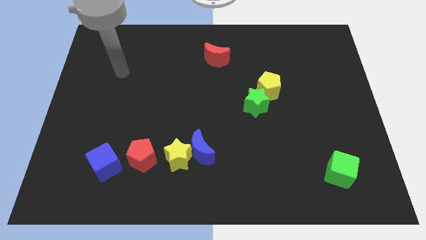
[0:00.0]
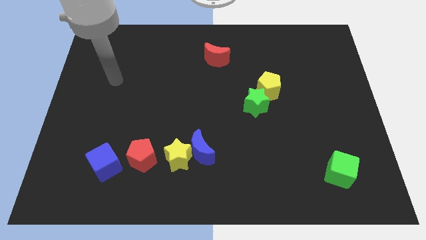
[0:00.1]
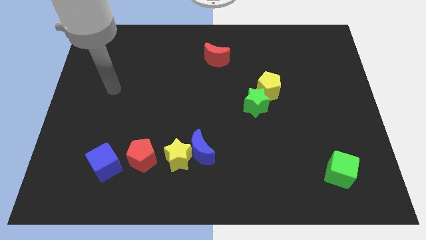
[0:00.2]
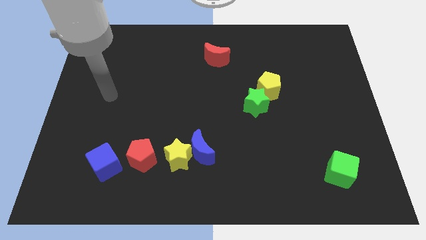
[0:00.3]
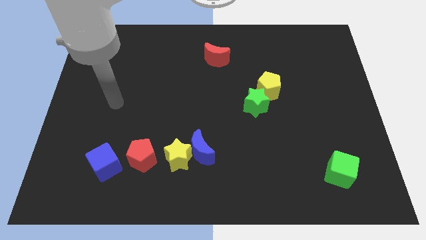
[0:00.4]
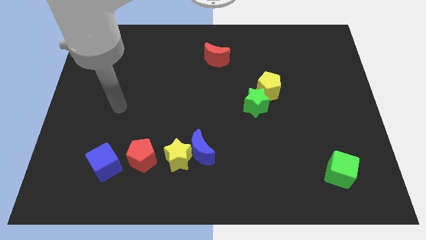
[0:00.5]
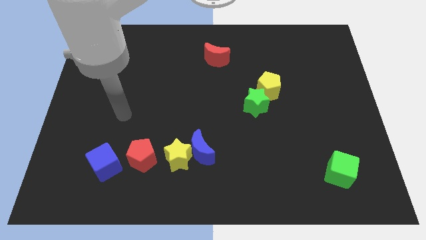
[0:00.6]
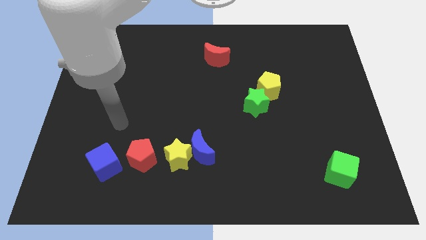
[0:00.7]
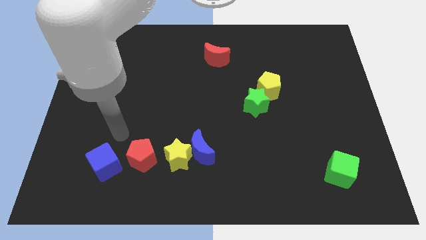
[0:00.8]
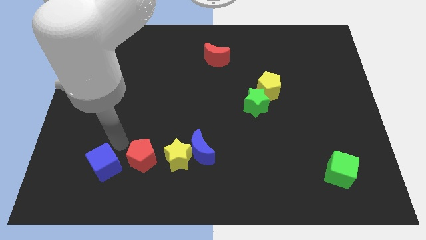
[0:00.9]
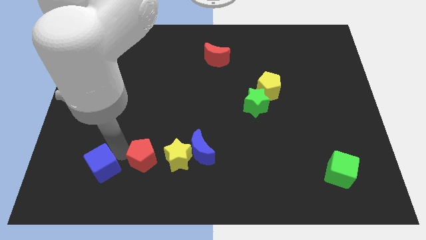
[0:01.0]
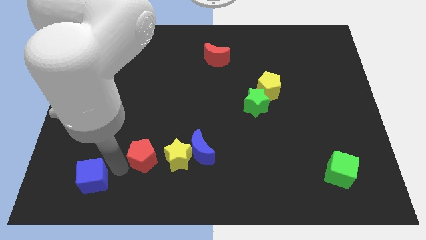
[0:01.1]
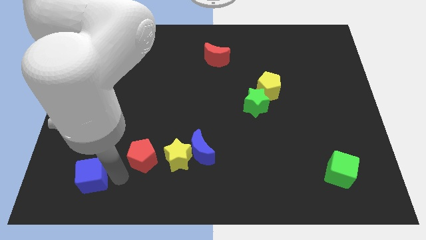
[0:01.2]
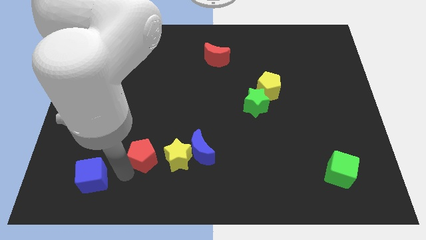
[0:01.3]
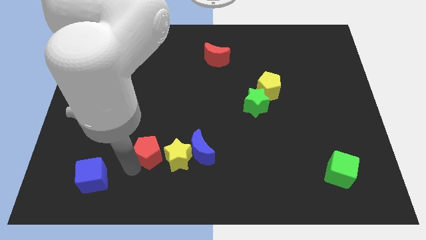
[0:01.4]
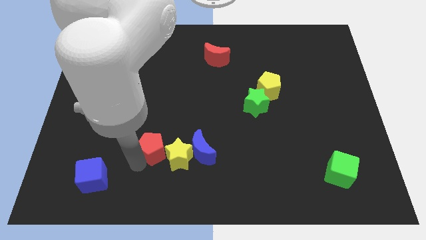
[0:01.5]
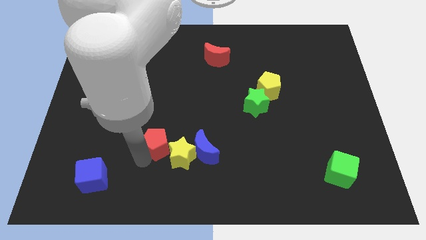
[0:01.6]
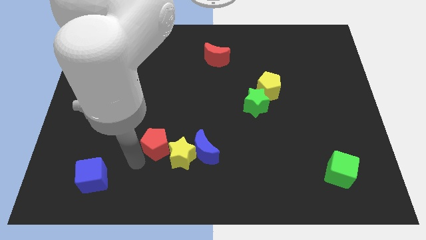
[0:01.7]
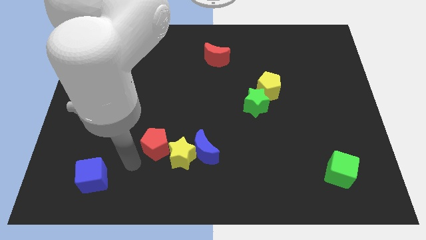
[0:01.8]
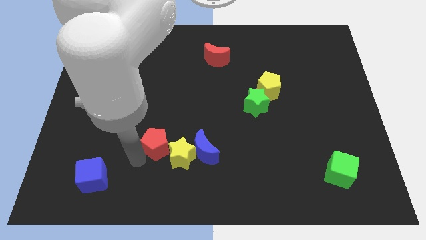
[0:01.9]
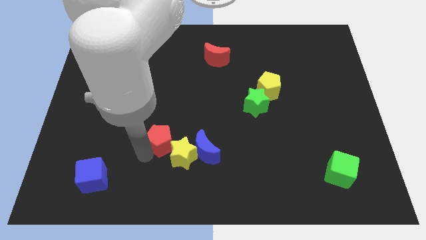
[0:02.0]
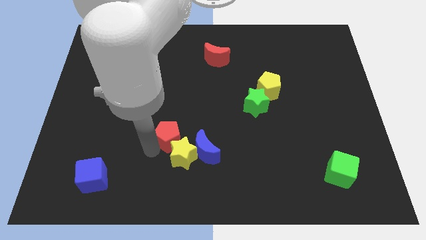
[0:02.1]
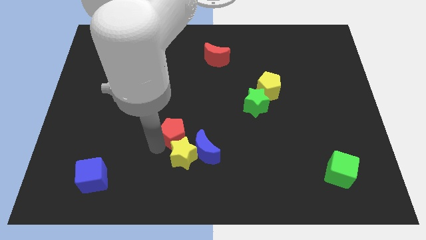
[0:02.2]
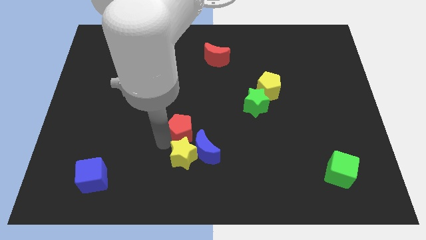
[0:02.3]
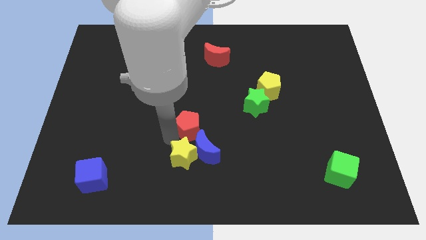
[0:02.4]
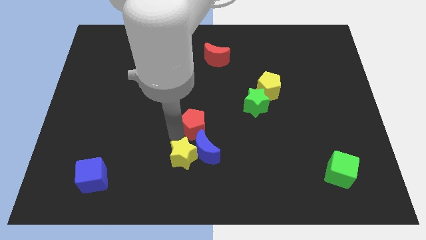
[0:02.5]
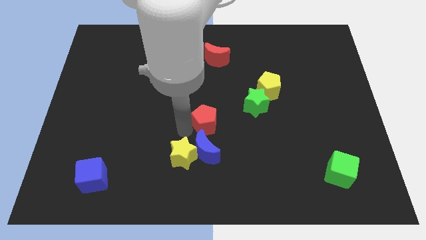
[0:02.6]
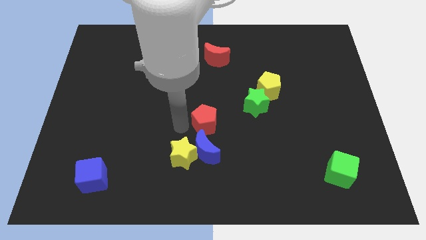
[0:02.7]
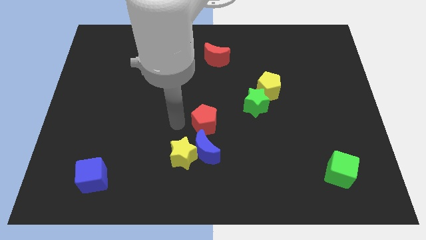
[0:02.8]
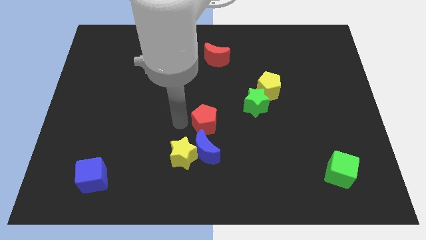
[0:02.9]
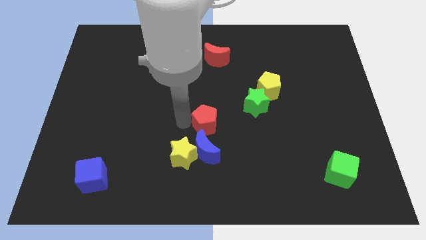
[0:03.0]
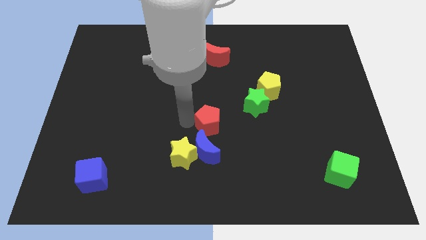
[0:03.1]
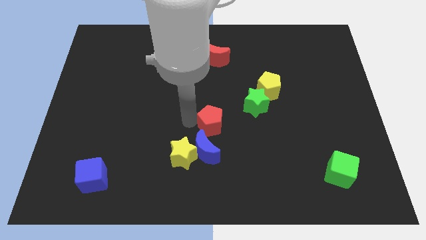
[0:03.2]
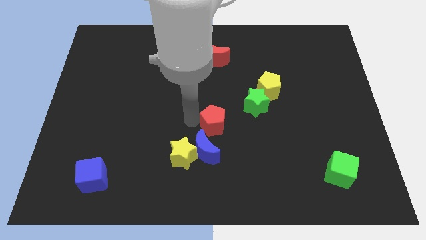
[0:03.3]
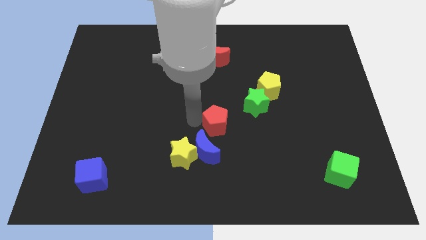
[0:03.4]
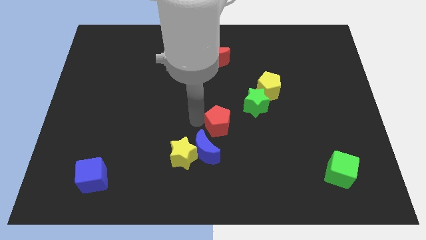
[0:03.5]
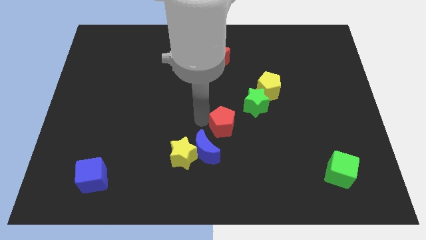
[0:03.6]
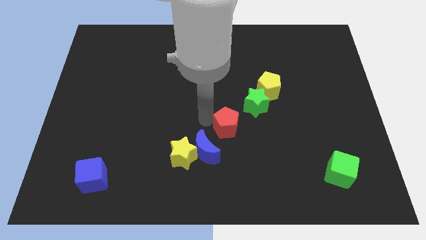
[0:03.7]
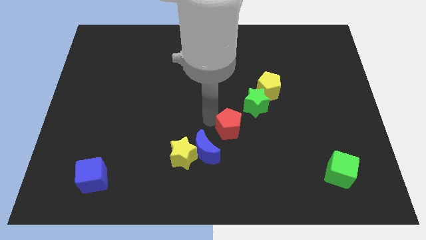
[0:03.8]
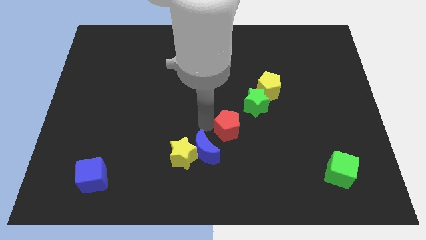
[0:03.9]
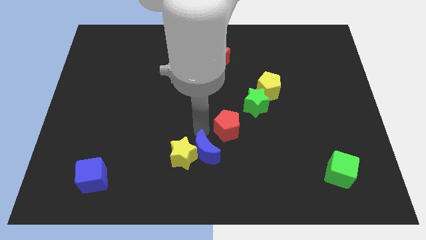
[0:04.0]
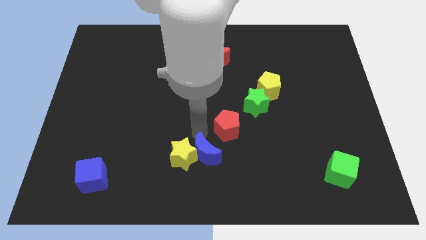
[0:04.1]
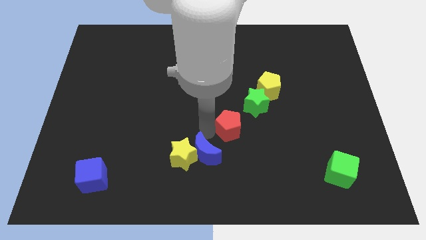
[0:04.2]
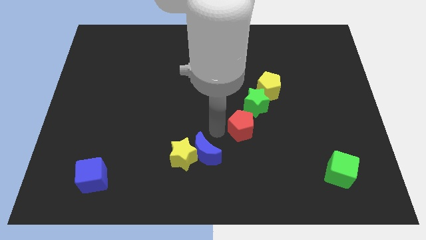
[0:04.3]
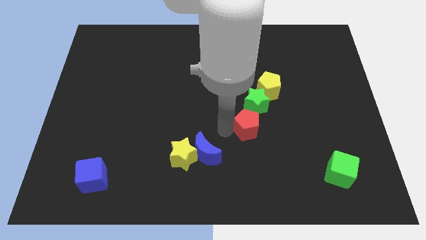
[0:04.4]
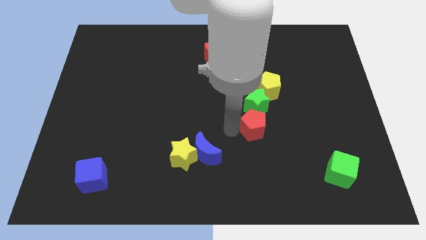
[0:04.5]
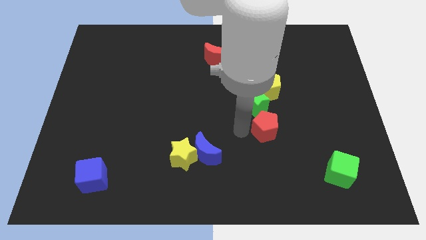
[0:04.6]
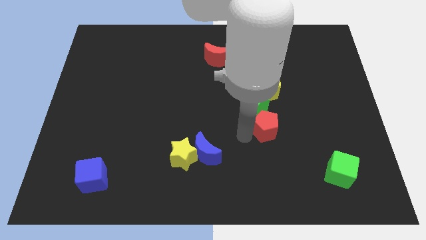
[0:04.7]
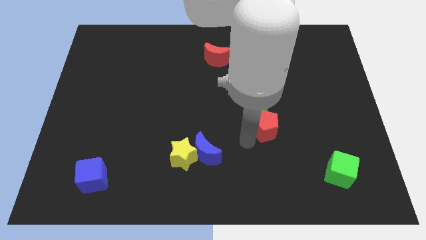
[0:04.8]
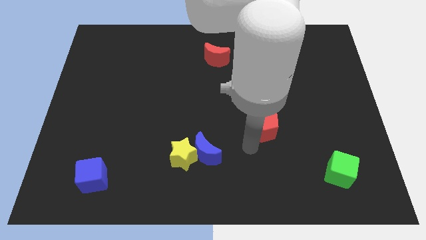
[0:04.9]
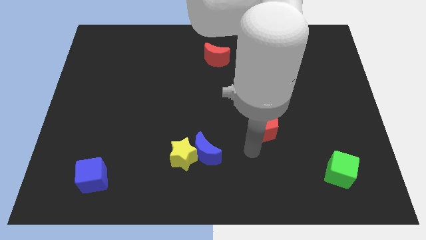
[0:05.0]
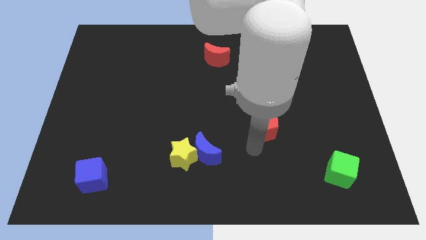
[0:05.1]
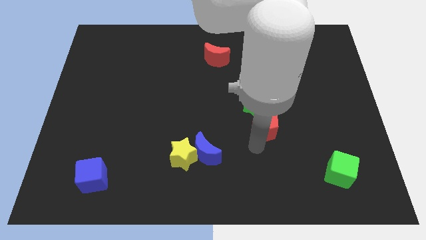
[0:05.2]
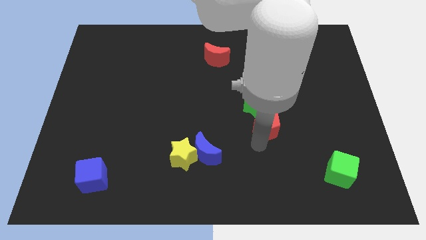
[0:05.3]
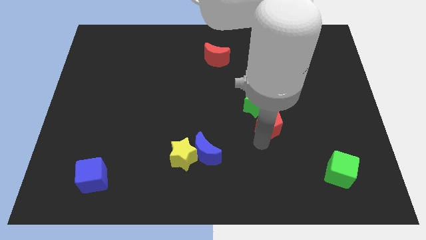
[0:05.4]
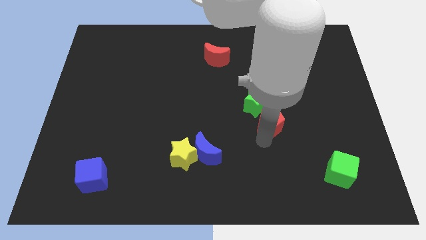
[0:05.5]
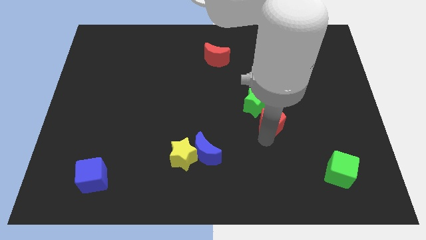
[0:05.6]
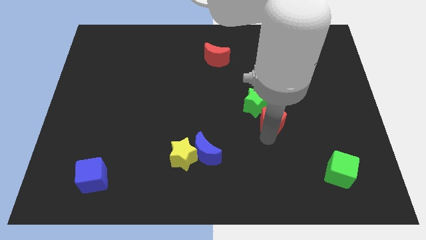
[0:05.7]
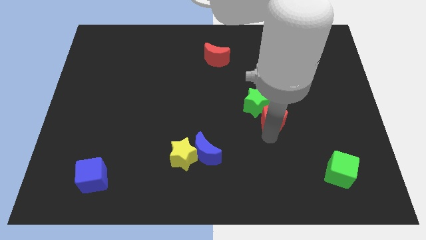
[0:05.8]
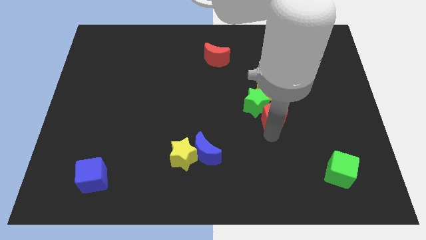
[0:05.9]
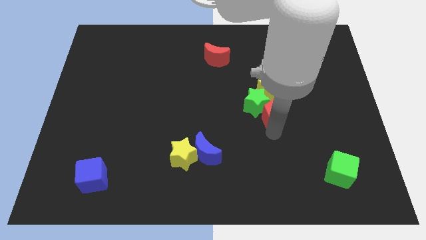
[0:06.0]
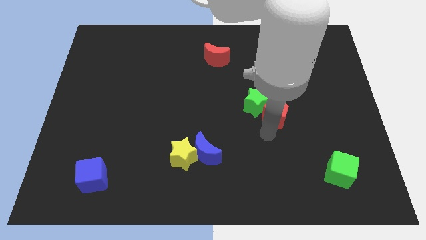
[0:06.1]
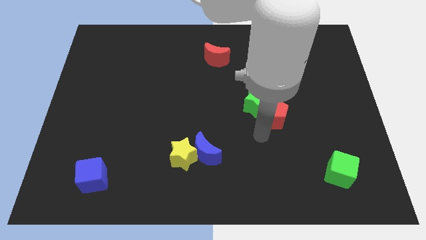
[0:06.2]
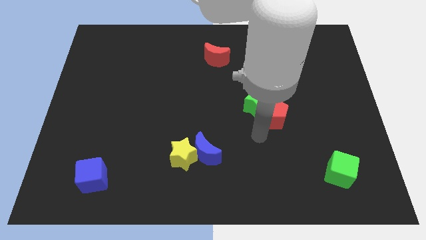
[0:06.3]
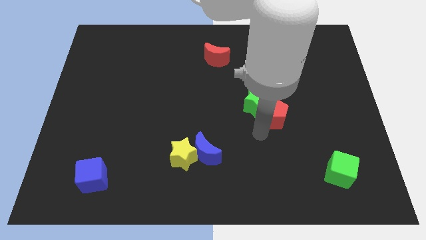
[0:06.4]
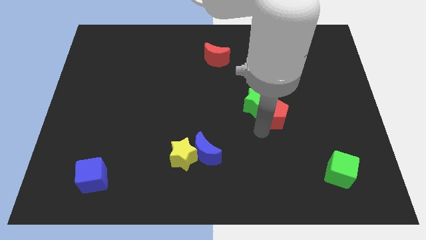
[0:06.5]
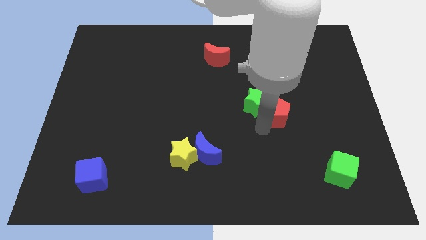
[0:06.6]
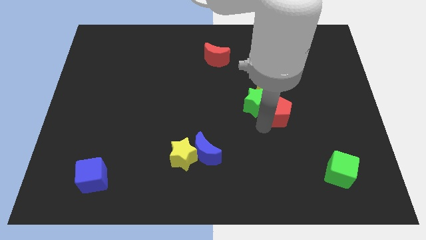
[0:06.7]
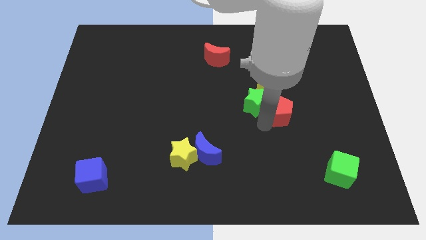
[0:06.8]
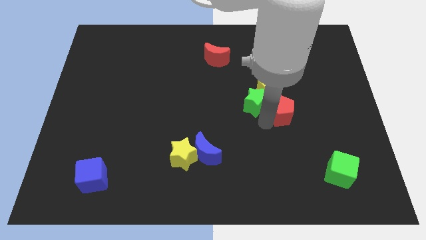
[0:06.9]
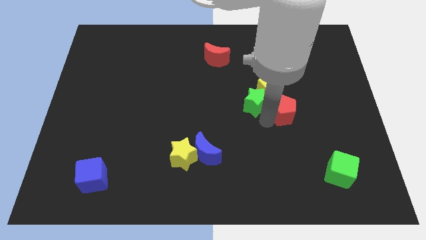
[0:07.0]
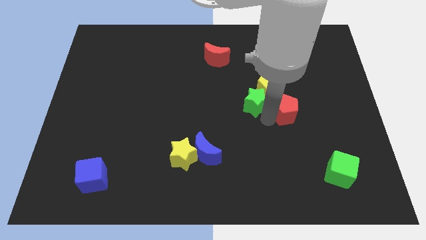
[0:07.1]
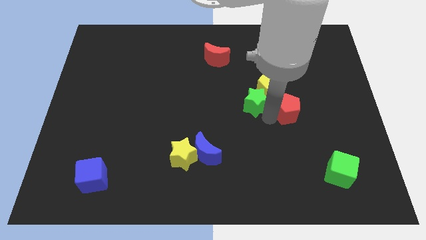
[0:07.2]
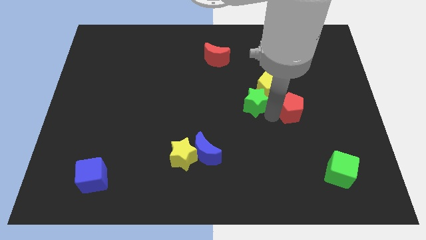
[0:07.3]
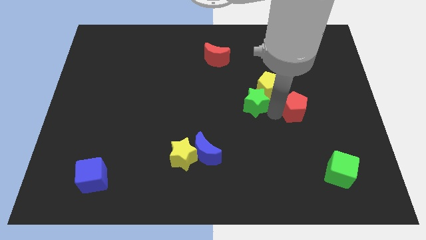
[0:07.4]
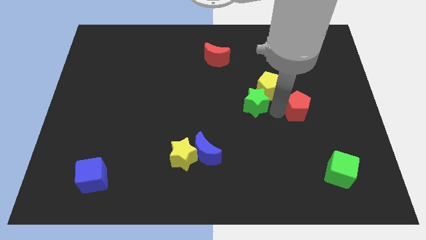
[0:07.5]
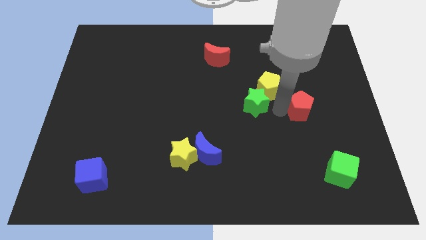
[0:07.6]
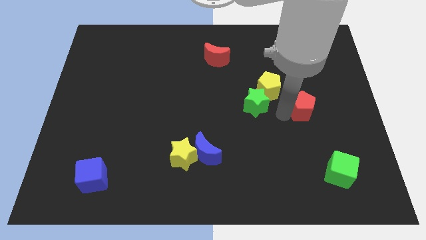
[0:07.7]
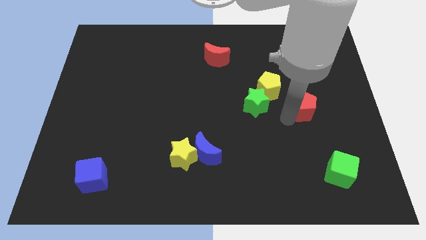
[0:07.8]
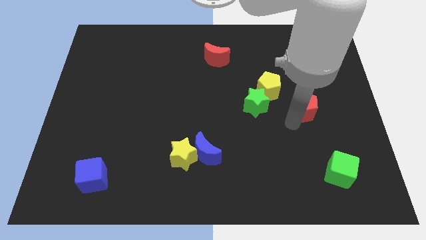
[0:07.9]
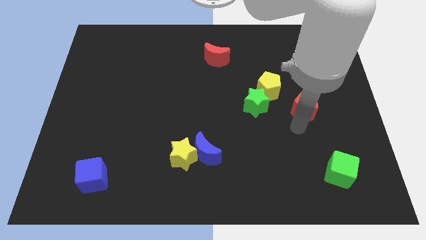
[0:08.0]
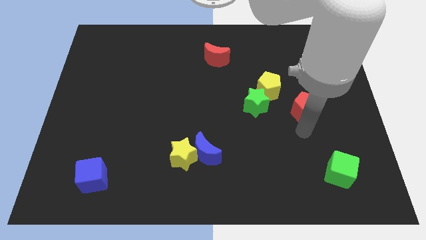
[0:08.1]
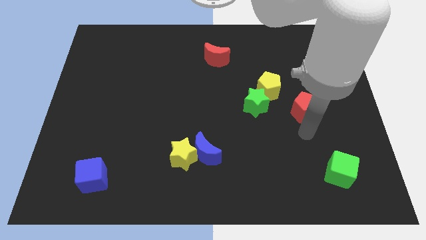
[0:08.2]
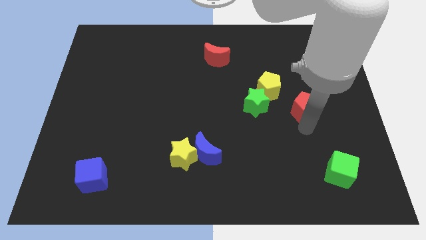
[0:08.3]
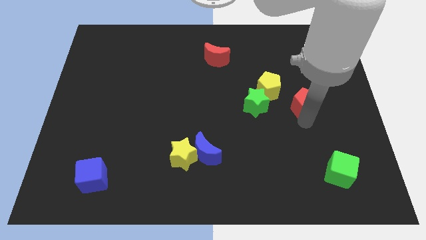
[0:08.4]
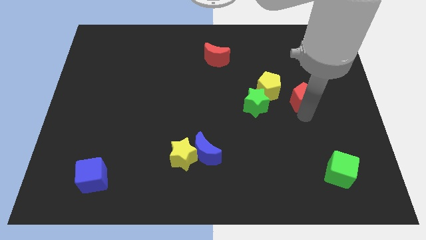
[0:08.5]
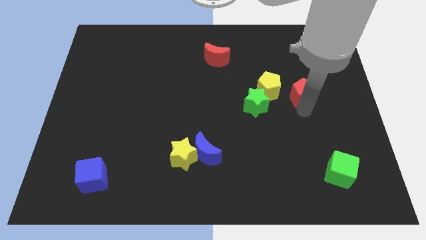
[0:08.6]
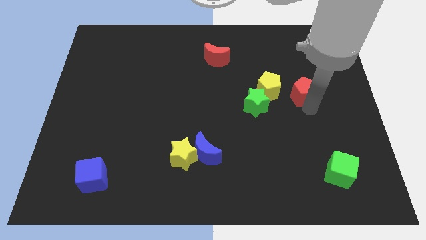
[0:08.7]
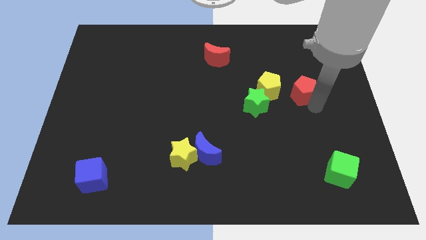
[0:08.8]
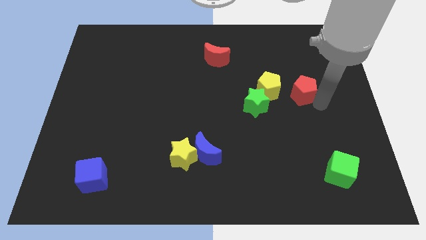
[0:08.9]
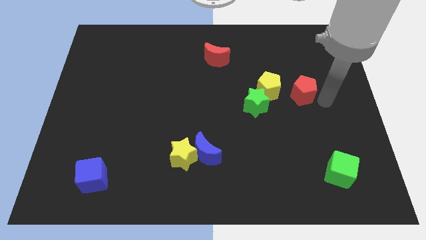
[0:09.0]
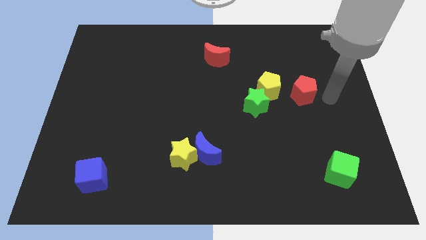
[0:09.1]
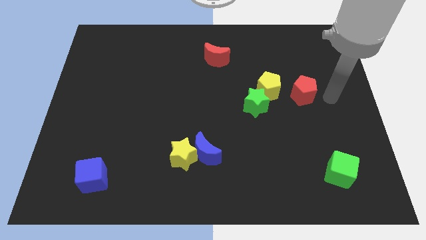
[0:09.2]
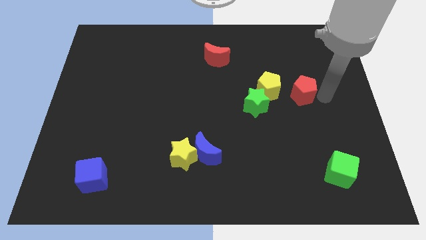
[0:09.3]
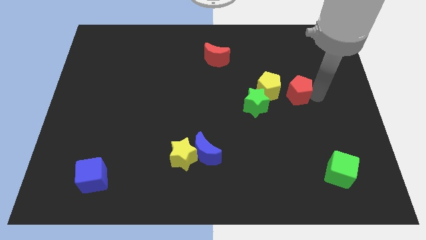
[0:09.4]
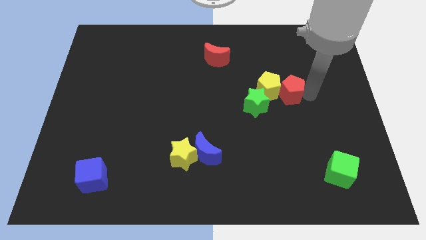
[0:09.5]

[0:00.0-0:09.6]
push the red pentagon diagonally up and to the right of the green star
